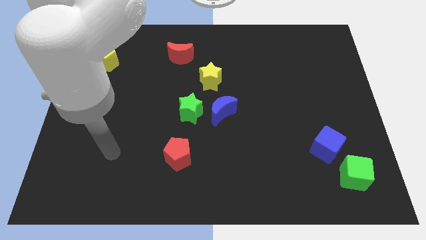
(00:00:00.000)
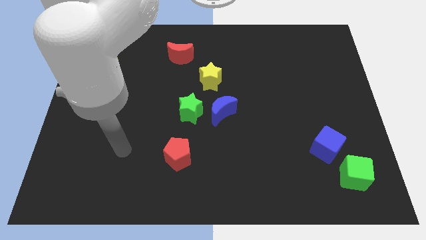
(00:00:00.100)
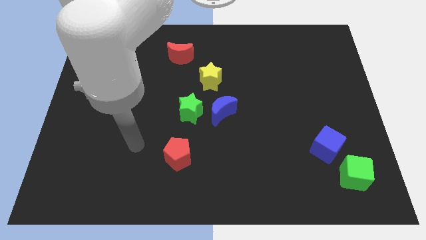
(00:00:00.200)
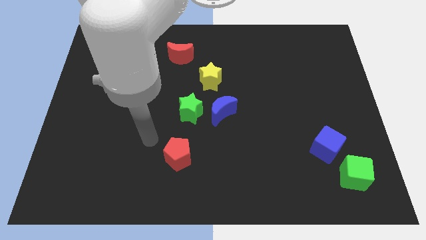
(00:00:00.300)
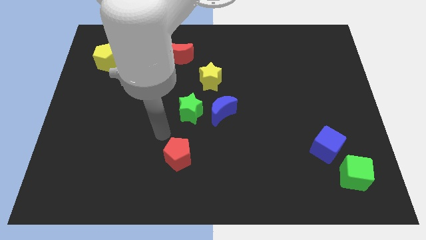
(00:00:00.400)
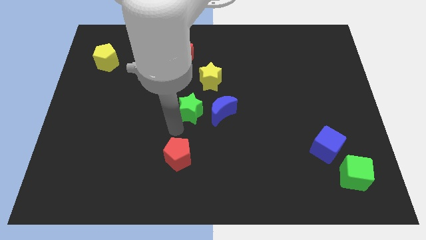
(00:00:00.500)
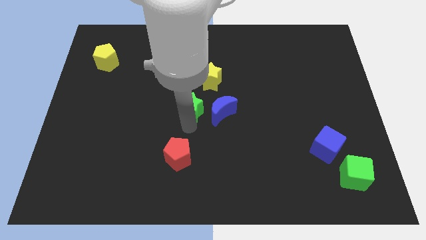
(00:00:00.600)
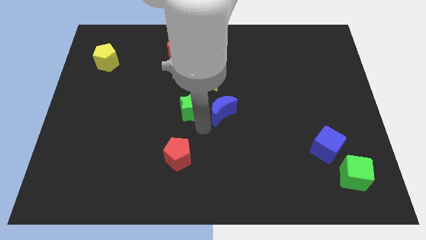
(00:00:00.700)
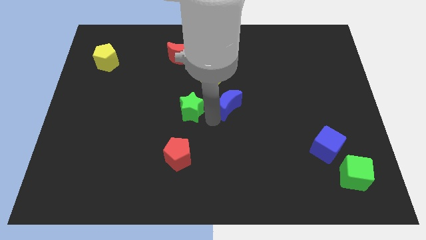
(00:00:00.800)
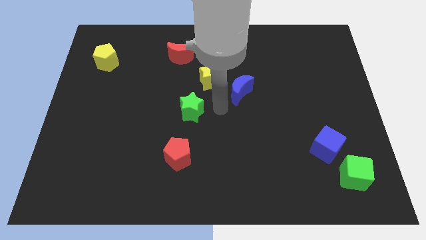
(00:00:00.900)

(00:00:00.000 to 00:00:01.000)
pull the green star apart from the blue moon

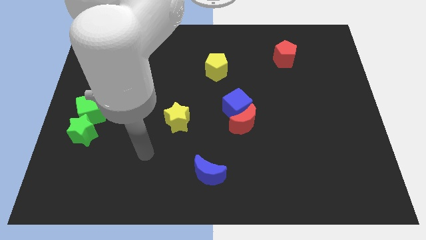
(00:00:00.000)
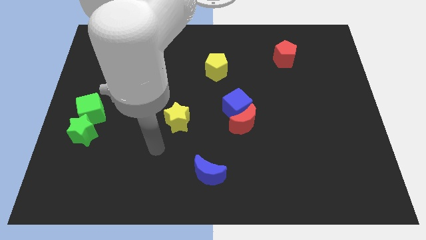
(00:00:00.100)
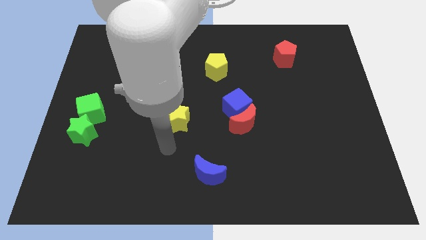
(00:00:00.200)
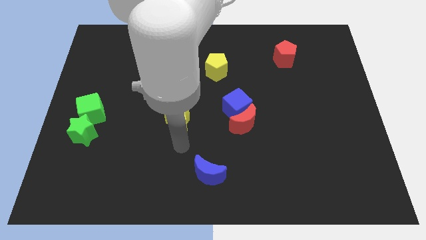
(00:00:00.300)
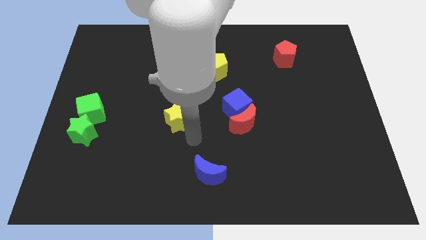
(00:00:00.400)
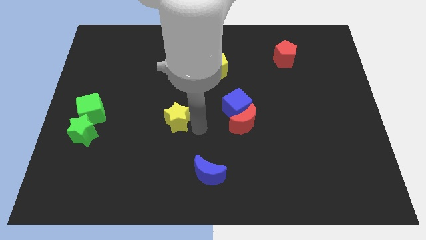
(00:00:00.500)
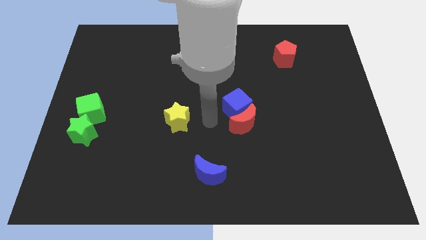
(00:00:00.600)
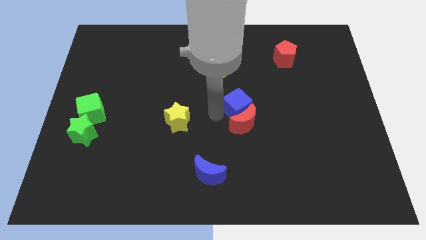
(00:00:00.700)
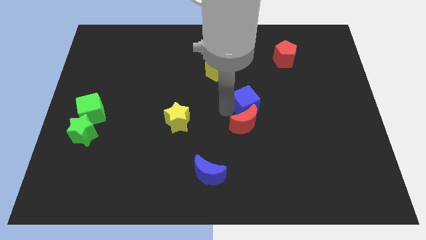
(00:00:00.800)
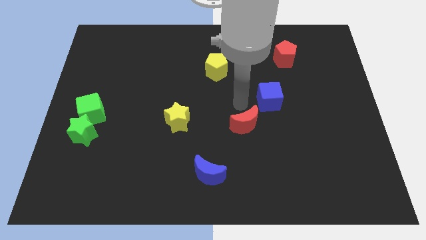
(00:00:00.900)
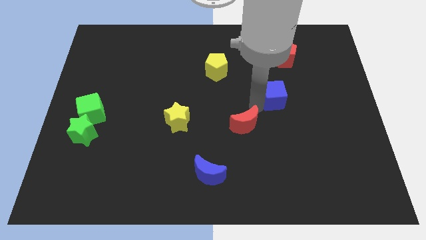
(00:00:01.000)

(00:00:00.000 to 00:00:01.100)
pull the red moon apart from the blue cube

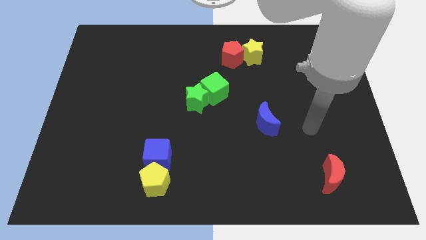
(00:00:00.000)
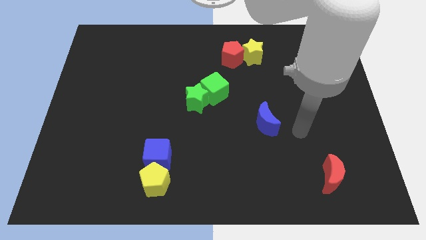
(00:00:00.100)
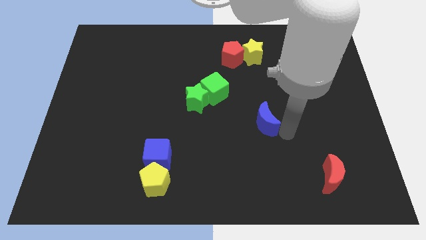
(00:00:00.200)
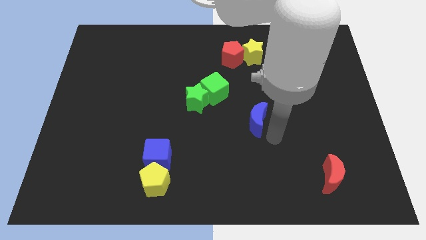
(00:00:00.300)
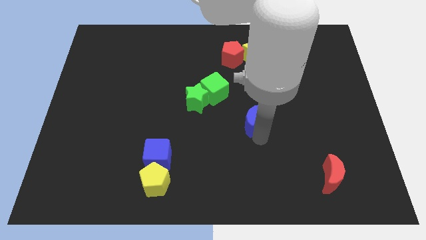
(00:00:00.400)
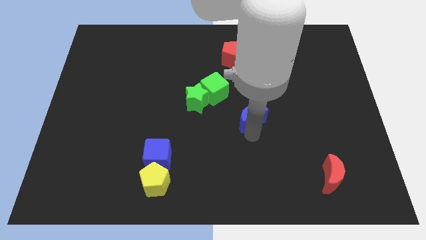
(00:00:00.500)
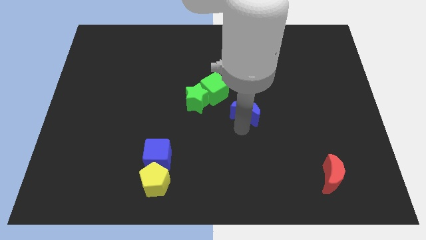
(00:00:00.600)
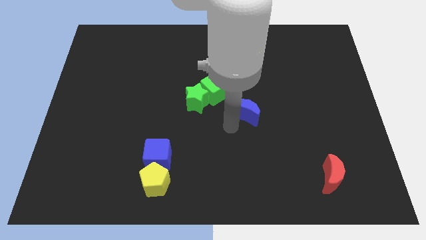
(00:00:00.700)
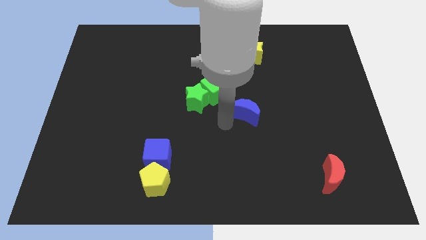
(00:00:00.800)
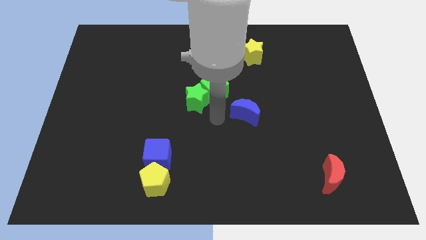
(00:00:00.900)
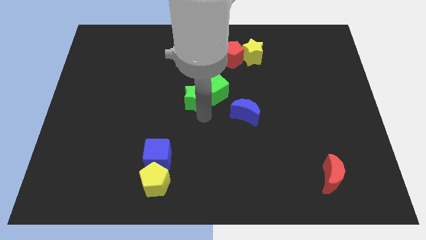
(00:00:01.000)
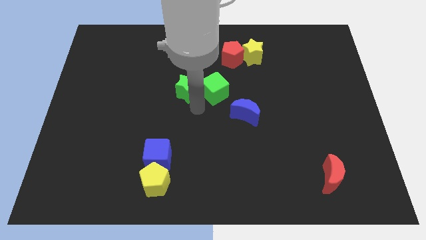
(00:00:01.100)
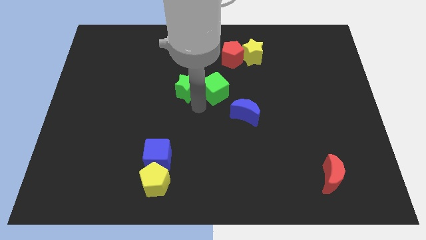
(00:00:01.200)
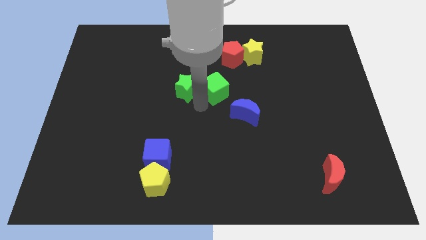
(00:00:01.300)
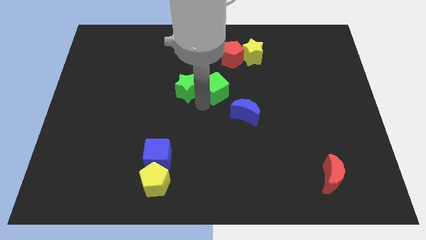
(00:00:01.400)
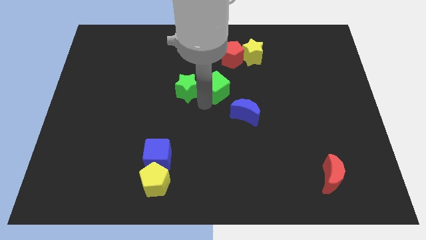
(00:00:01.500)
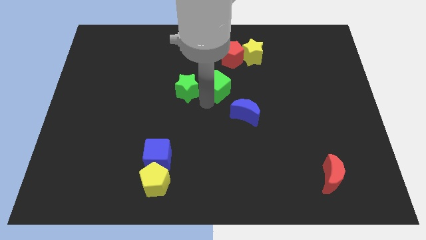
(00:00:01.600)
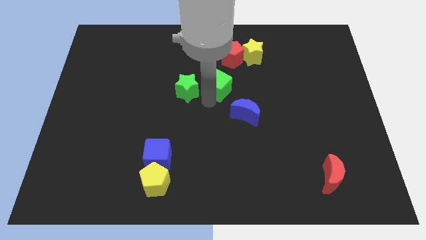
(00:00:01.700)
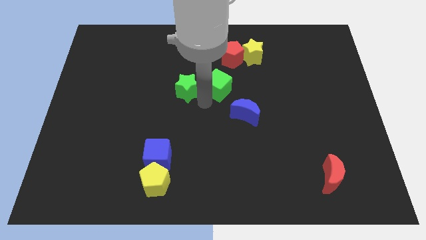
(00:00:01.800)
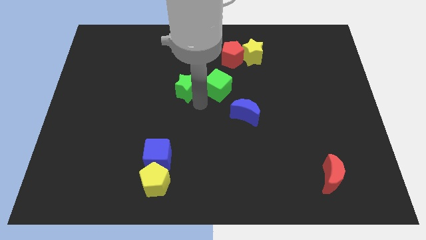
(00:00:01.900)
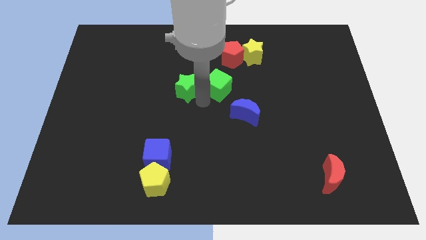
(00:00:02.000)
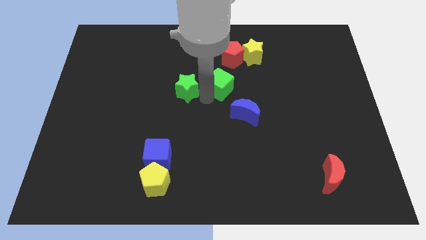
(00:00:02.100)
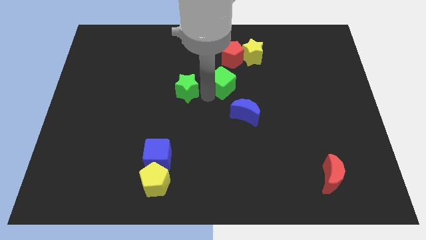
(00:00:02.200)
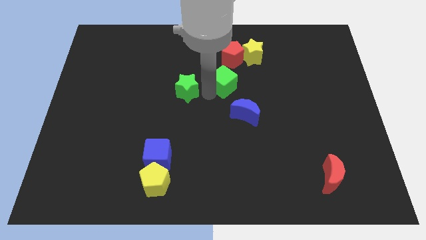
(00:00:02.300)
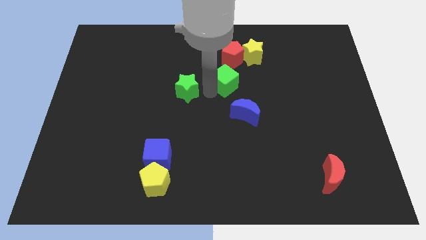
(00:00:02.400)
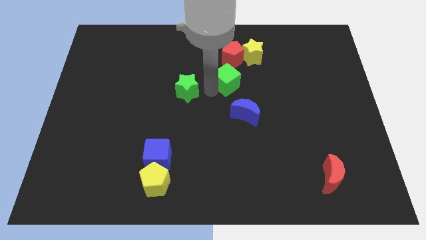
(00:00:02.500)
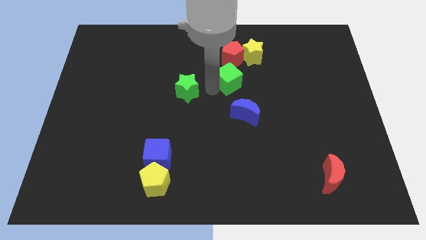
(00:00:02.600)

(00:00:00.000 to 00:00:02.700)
move the green cube away from the green star

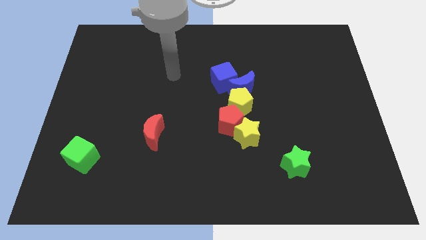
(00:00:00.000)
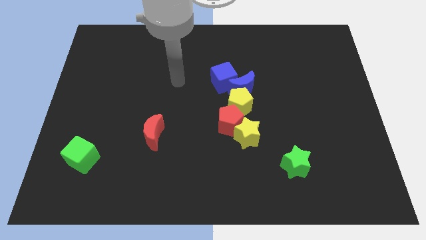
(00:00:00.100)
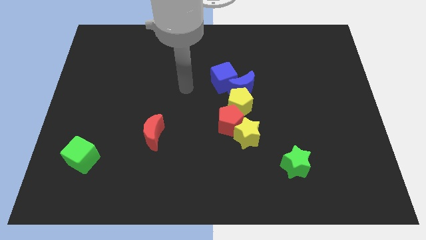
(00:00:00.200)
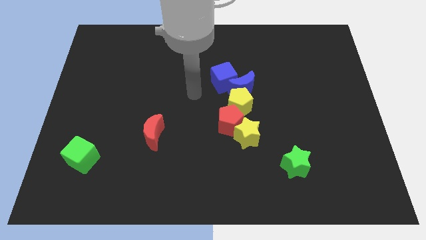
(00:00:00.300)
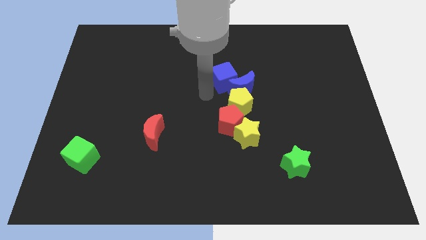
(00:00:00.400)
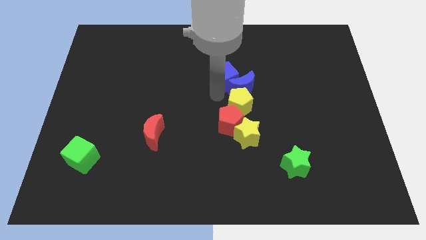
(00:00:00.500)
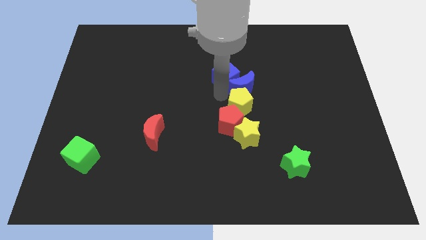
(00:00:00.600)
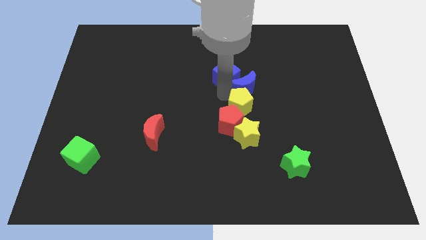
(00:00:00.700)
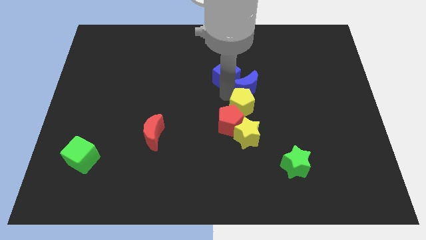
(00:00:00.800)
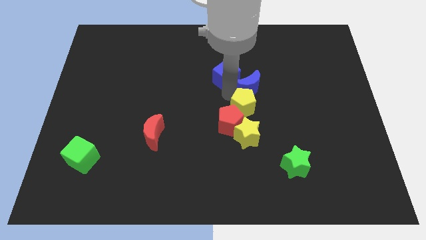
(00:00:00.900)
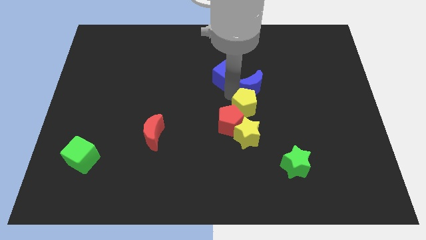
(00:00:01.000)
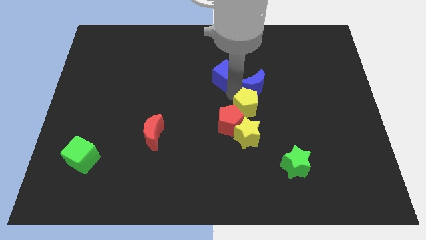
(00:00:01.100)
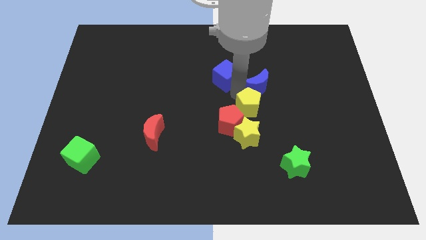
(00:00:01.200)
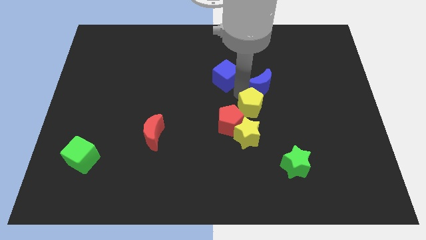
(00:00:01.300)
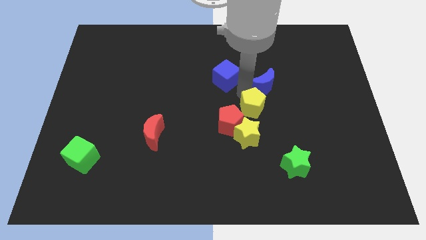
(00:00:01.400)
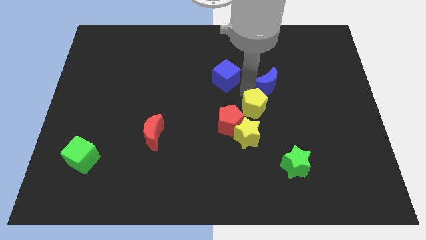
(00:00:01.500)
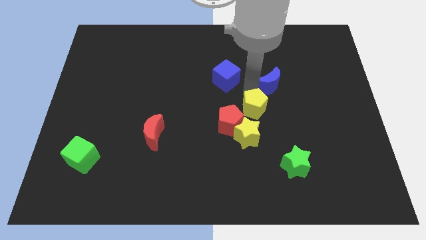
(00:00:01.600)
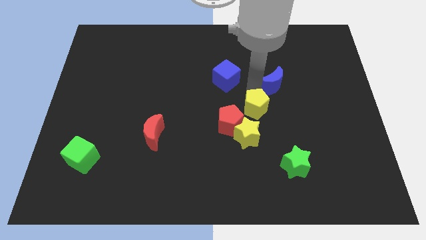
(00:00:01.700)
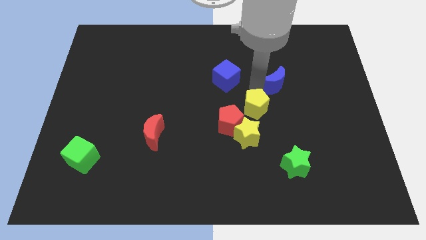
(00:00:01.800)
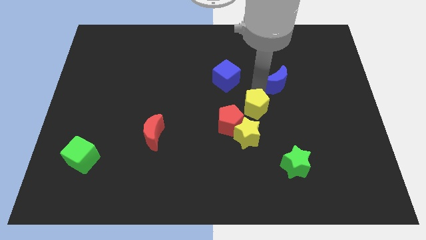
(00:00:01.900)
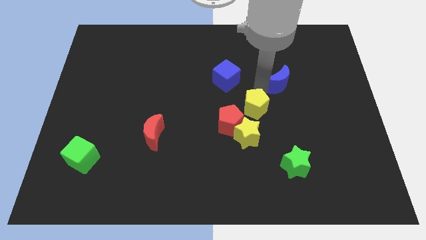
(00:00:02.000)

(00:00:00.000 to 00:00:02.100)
separate the blue moon from the yellow pentagon and blue cube

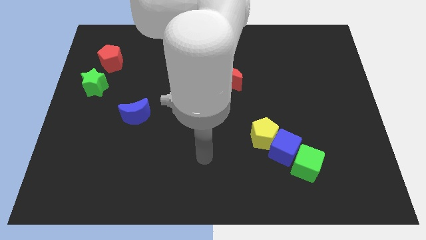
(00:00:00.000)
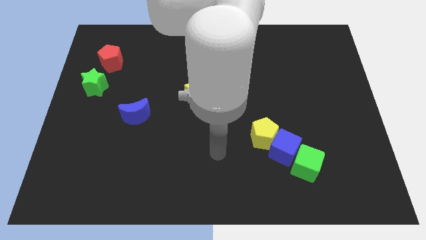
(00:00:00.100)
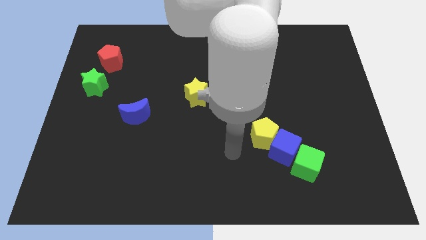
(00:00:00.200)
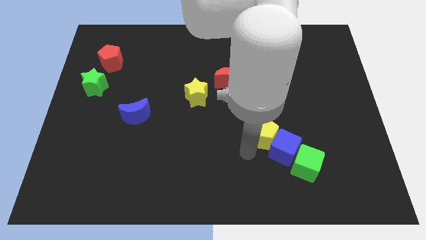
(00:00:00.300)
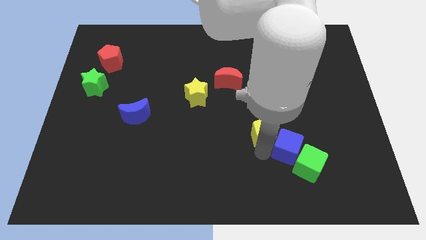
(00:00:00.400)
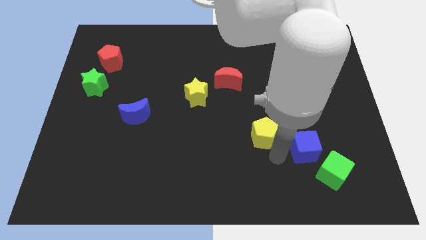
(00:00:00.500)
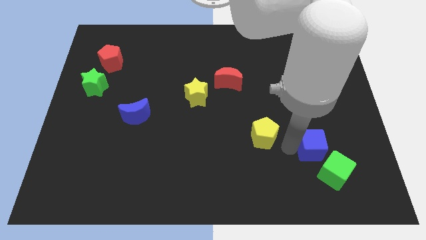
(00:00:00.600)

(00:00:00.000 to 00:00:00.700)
separate the yellow pentagon from the blue cube

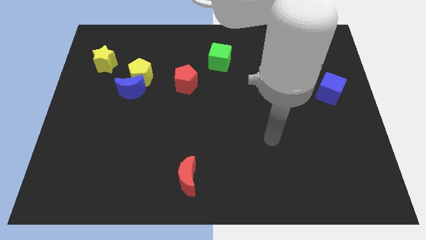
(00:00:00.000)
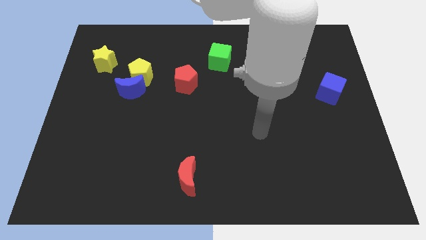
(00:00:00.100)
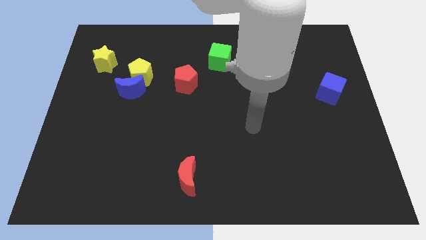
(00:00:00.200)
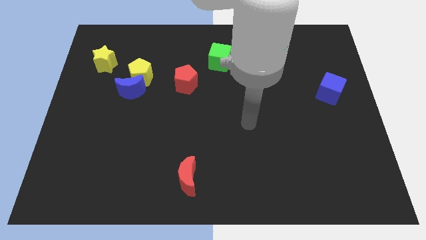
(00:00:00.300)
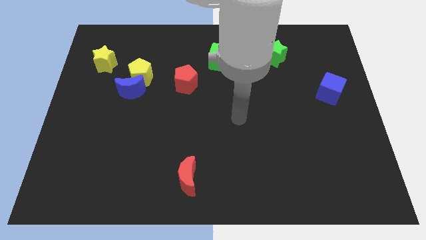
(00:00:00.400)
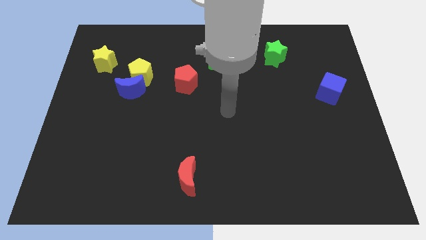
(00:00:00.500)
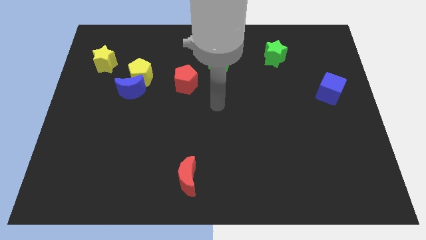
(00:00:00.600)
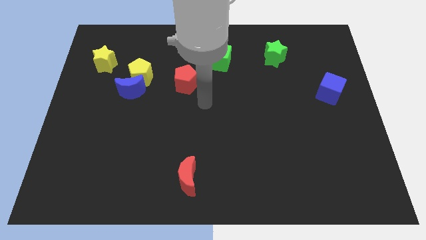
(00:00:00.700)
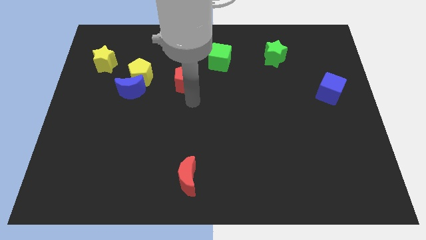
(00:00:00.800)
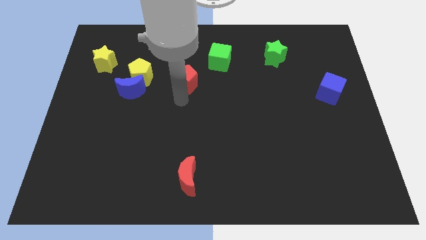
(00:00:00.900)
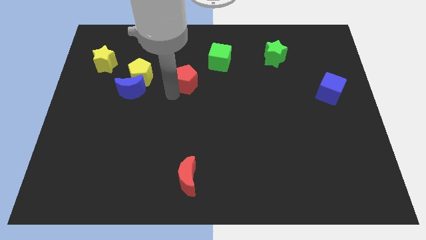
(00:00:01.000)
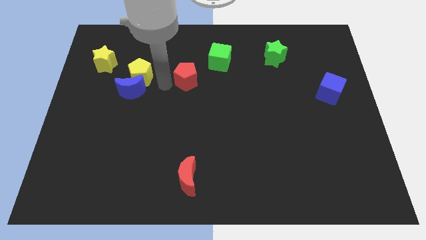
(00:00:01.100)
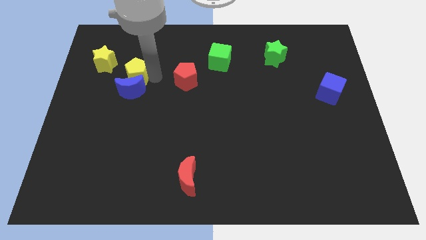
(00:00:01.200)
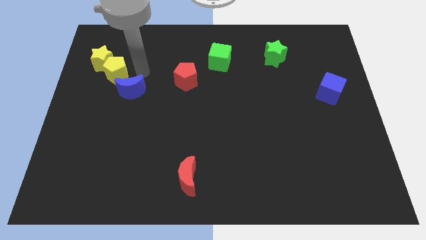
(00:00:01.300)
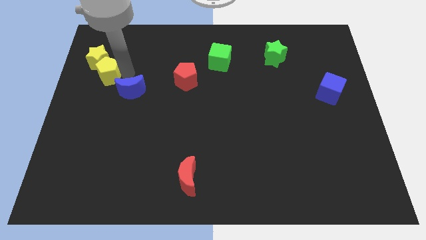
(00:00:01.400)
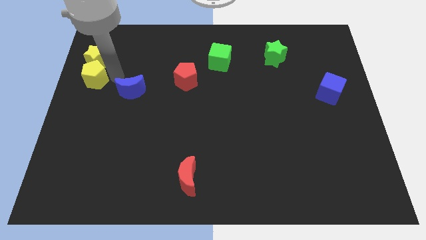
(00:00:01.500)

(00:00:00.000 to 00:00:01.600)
separate the blue moon from the yellow pentagon
